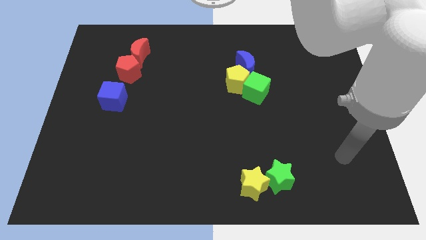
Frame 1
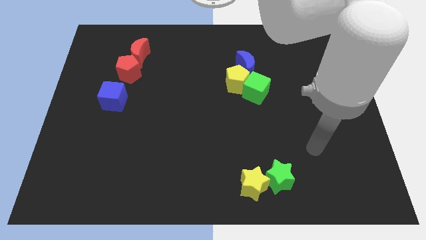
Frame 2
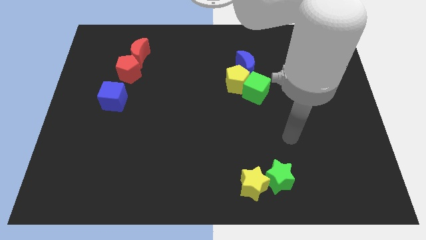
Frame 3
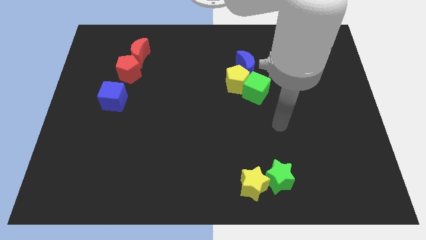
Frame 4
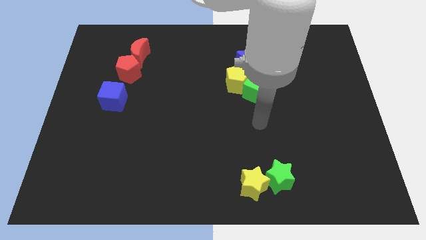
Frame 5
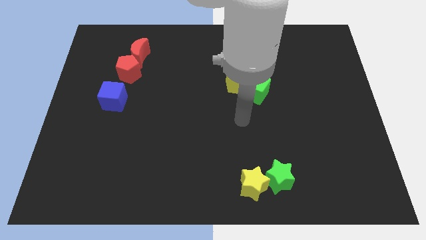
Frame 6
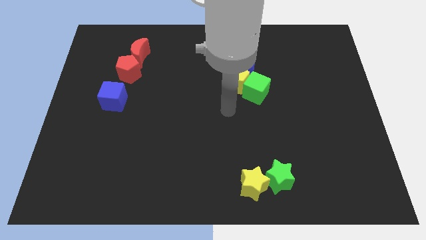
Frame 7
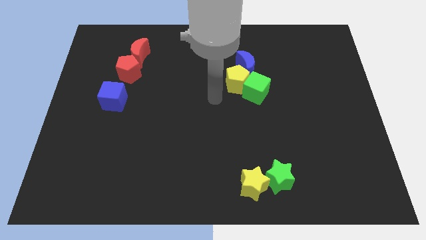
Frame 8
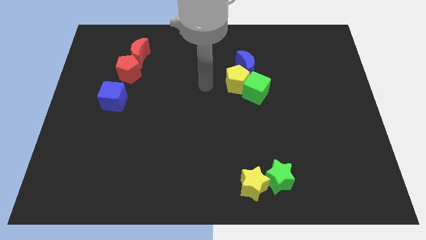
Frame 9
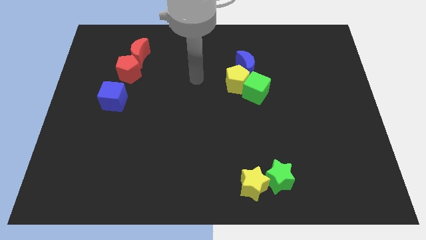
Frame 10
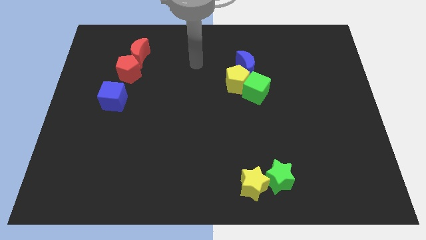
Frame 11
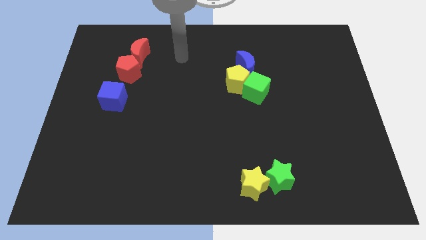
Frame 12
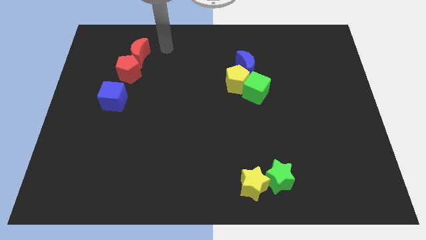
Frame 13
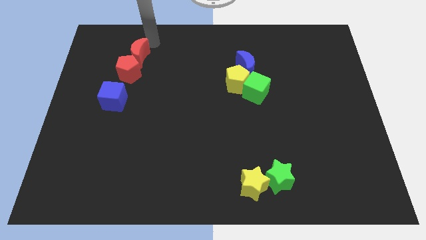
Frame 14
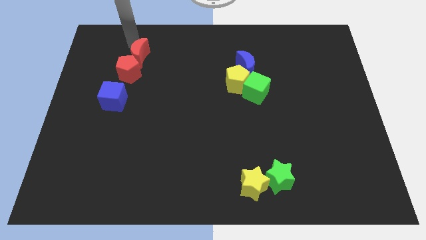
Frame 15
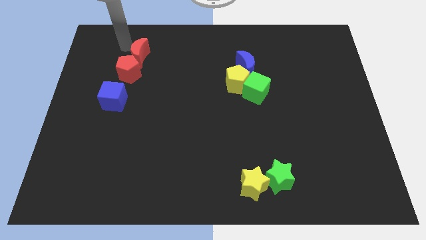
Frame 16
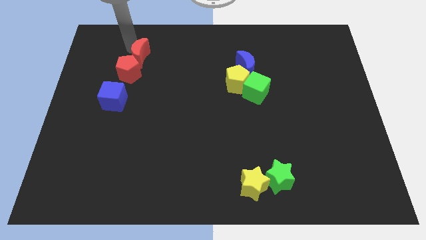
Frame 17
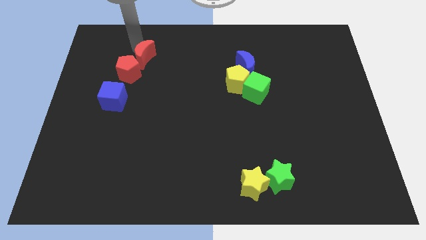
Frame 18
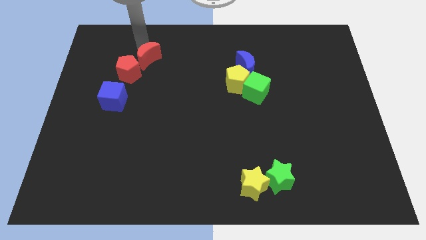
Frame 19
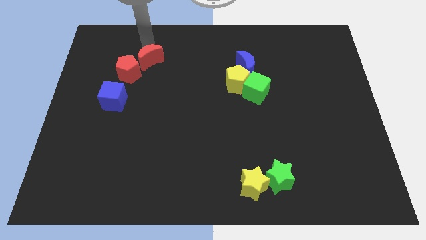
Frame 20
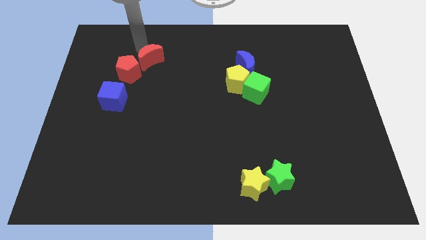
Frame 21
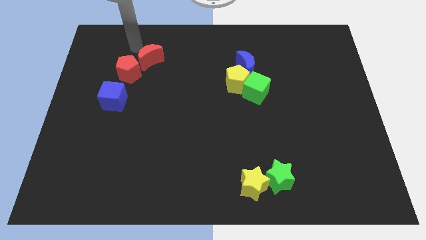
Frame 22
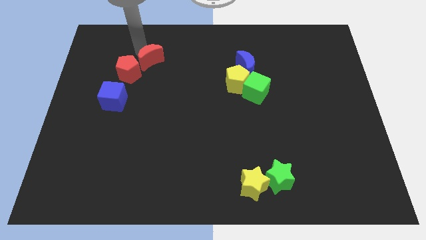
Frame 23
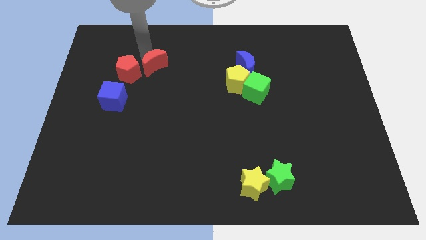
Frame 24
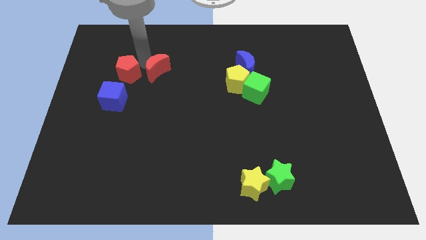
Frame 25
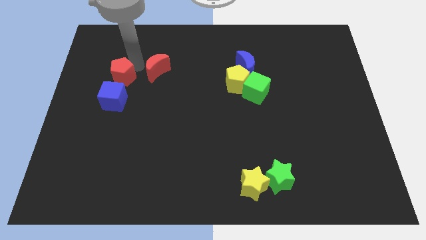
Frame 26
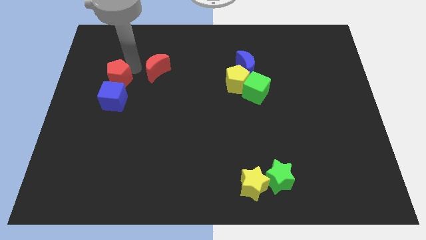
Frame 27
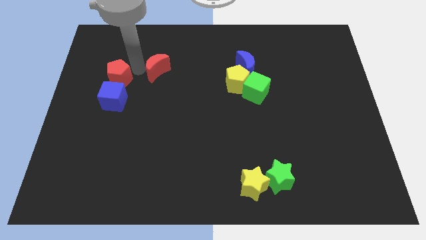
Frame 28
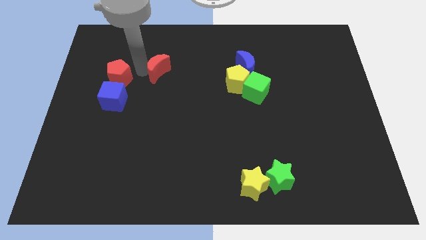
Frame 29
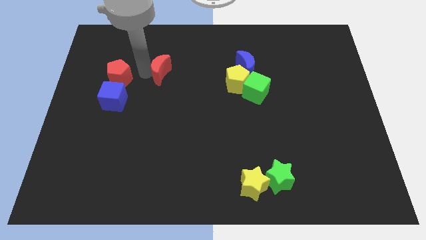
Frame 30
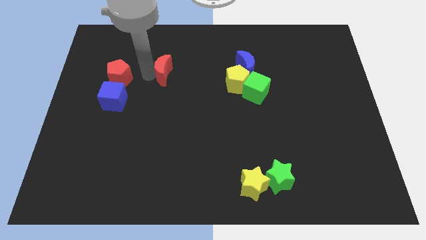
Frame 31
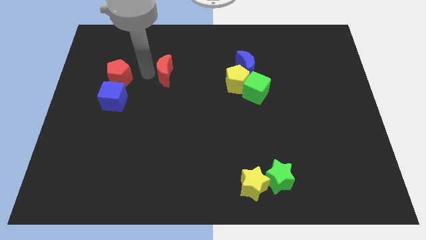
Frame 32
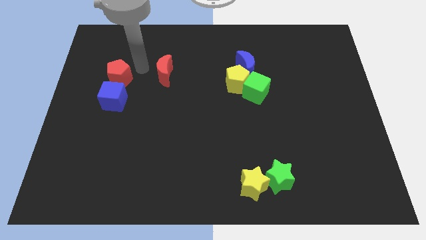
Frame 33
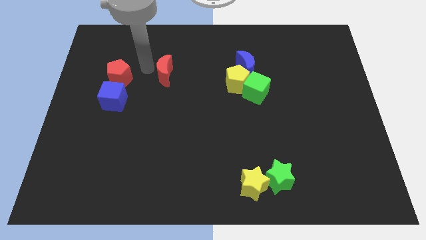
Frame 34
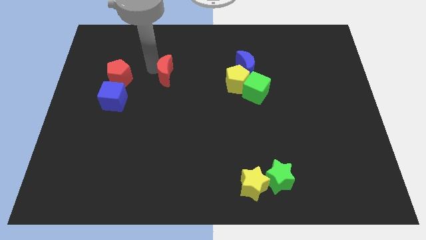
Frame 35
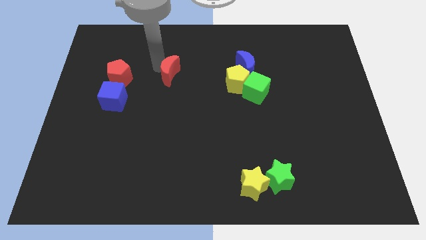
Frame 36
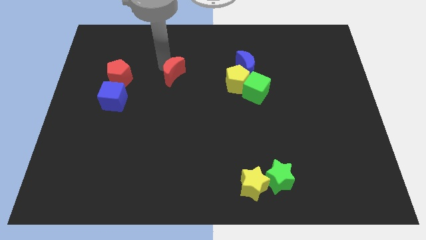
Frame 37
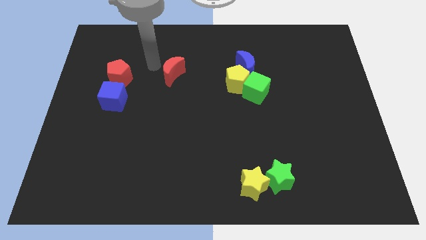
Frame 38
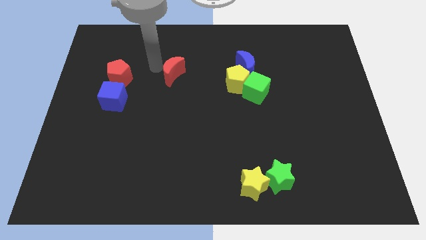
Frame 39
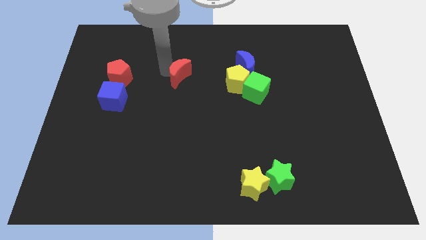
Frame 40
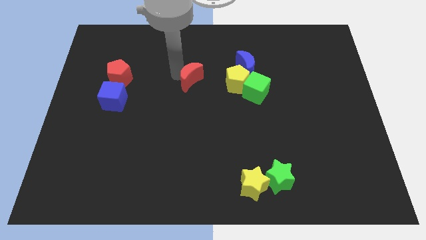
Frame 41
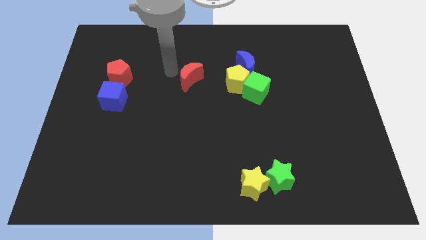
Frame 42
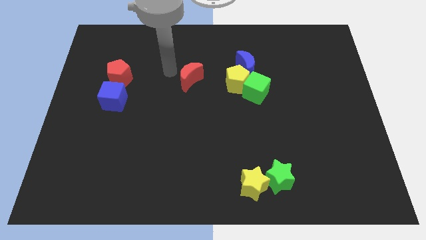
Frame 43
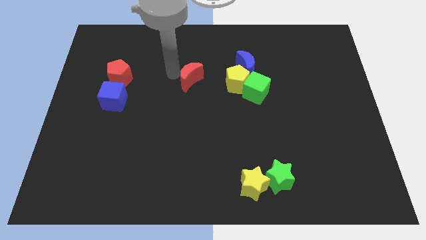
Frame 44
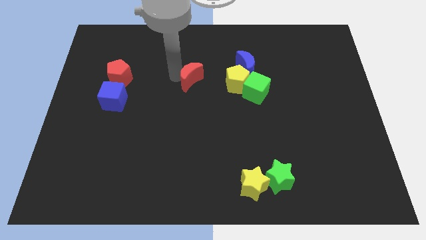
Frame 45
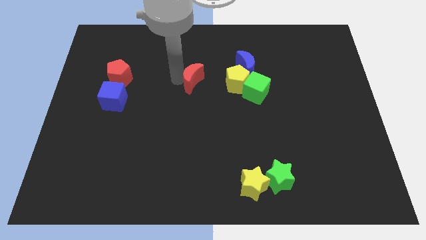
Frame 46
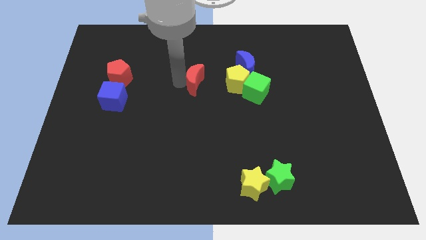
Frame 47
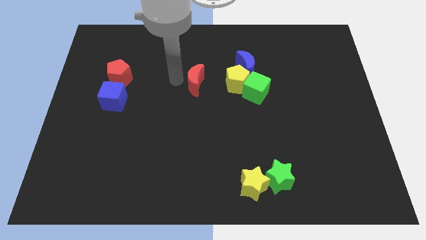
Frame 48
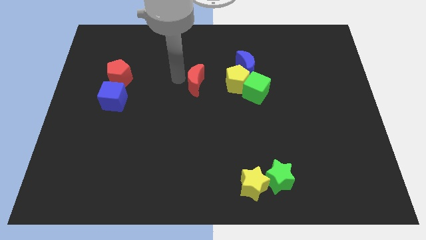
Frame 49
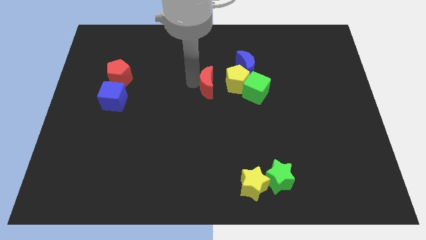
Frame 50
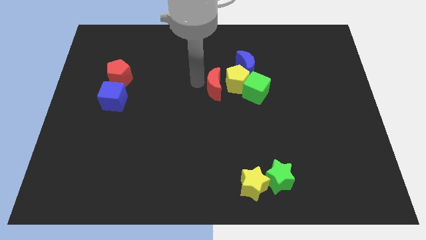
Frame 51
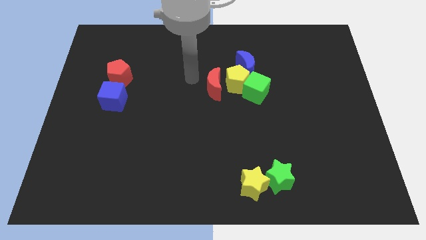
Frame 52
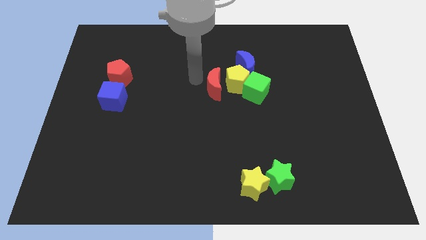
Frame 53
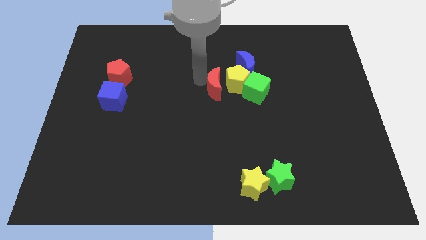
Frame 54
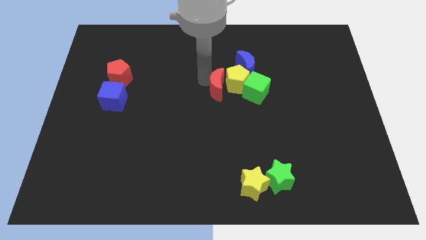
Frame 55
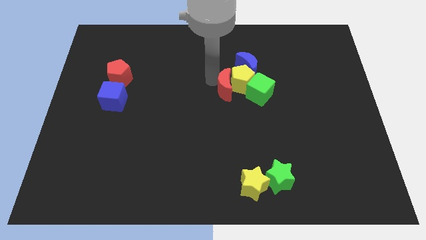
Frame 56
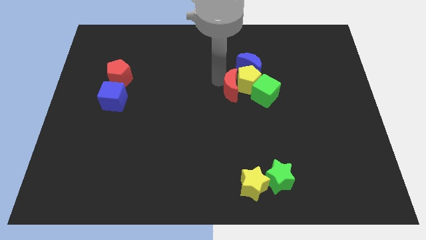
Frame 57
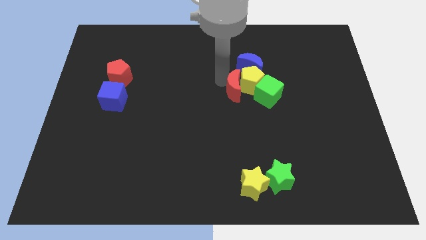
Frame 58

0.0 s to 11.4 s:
slide the red moon below the blue moon

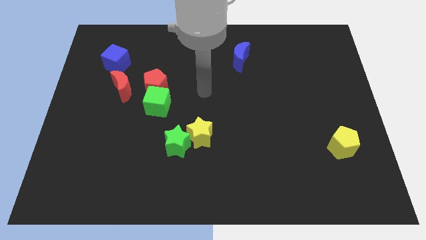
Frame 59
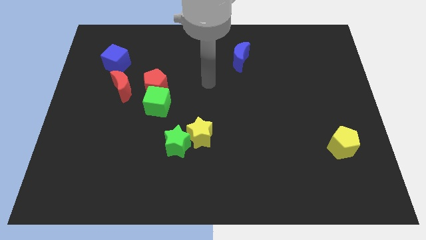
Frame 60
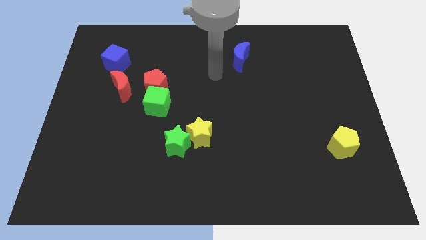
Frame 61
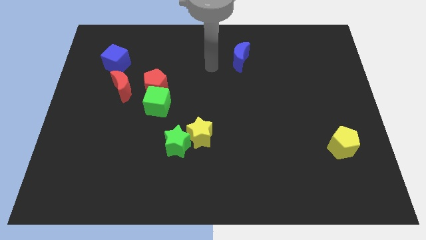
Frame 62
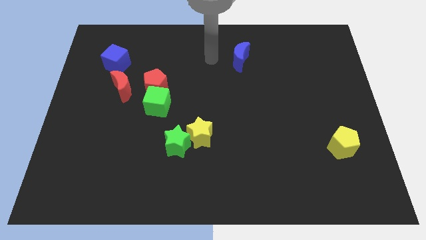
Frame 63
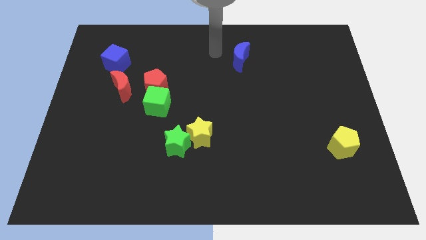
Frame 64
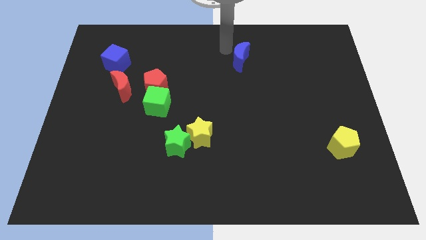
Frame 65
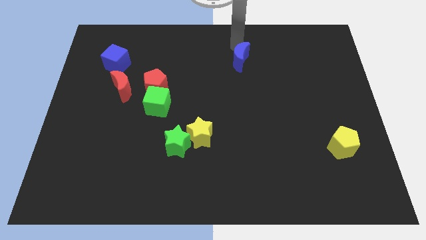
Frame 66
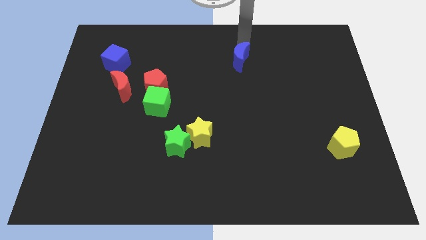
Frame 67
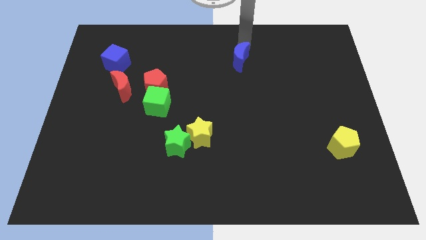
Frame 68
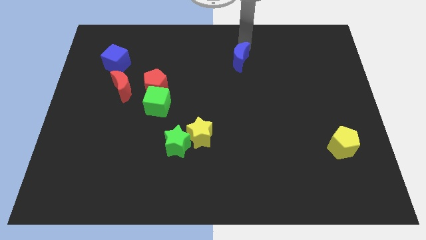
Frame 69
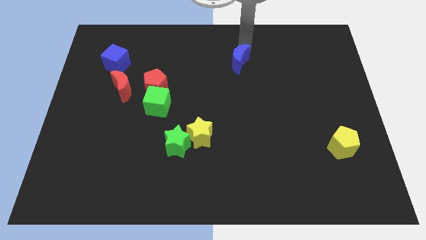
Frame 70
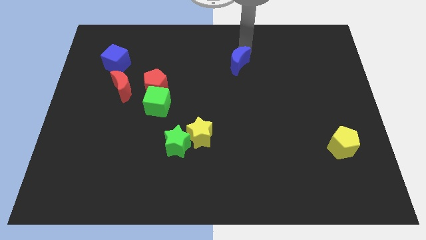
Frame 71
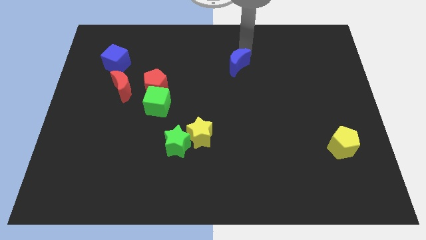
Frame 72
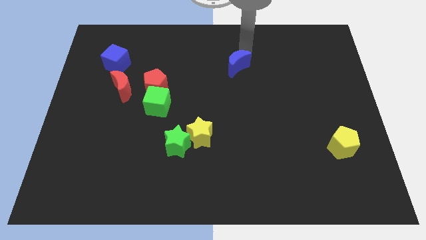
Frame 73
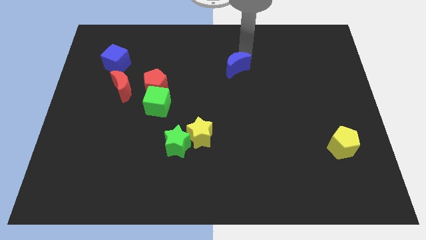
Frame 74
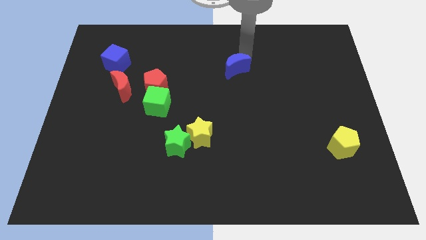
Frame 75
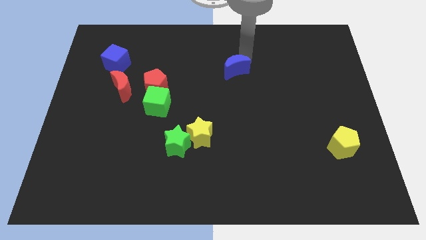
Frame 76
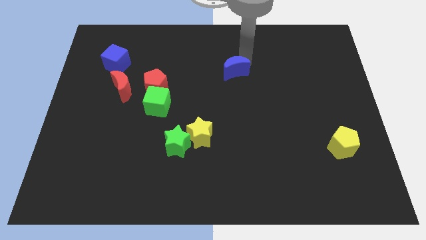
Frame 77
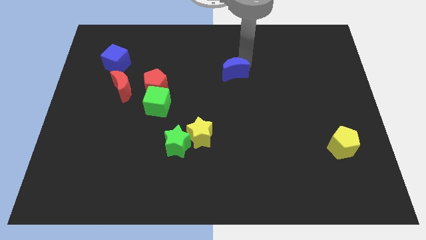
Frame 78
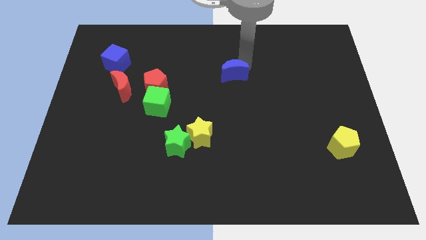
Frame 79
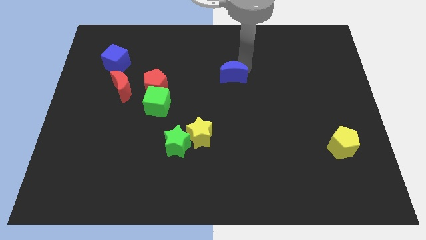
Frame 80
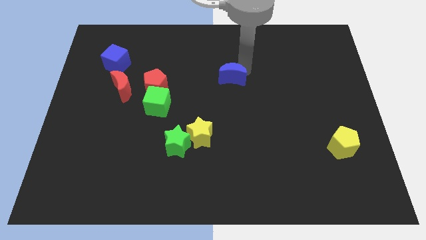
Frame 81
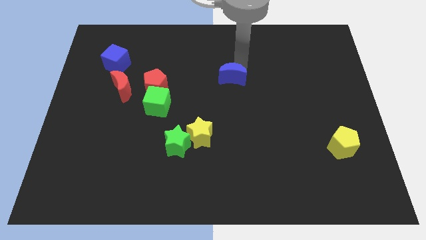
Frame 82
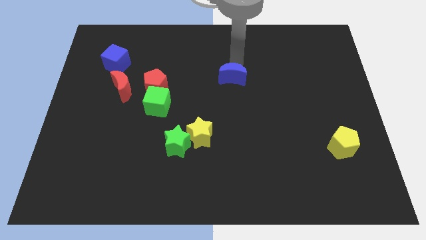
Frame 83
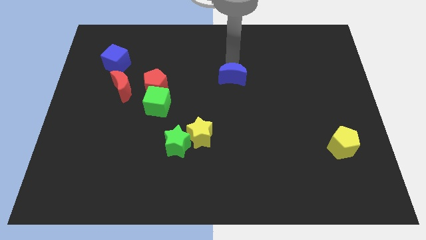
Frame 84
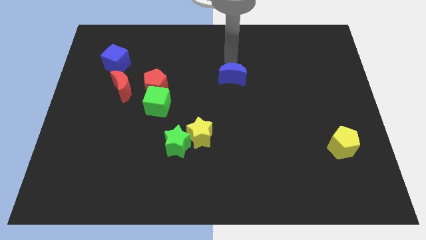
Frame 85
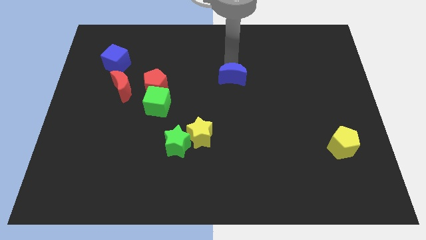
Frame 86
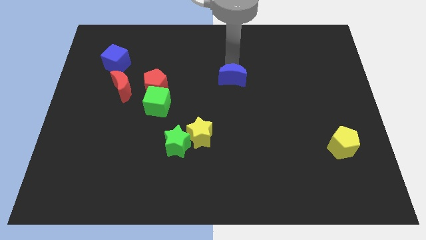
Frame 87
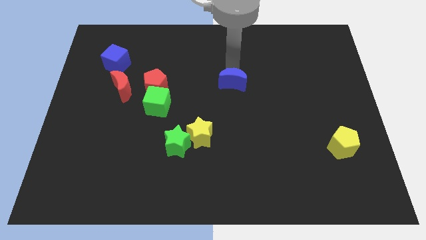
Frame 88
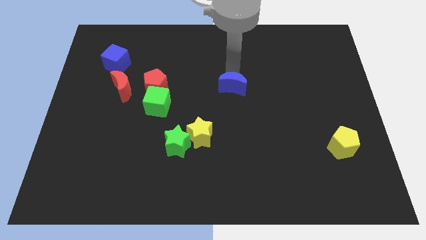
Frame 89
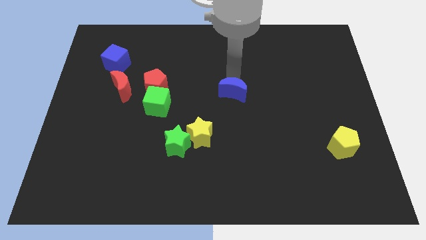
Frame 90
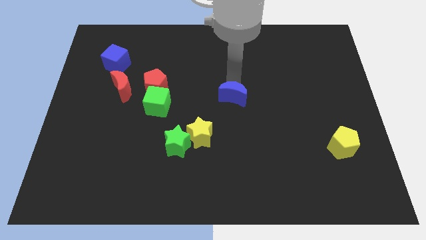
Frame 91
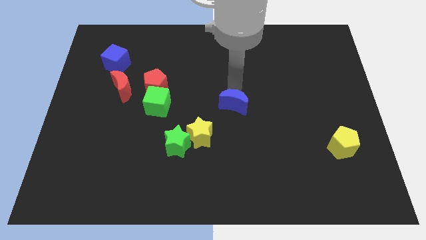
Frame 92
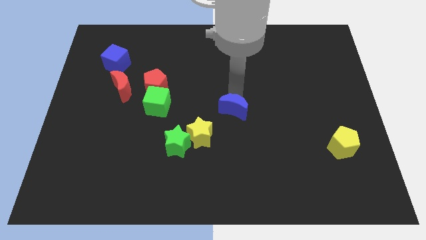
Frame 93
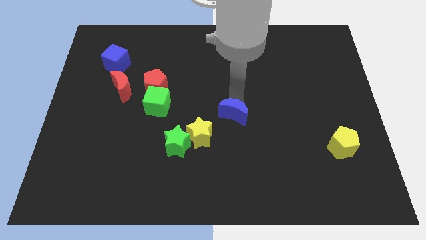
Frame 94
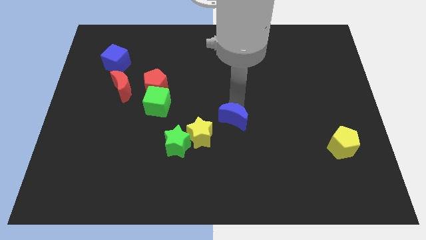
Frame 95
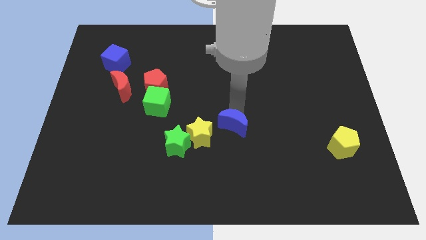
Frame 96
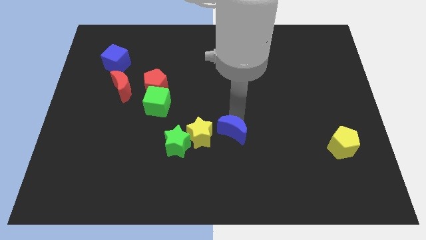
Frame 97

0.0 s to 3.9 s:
put the blue moon right of the green star
